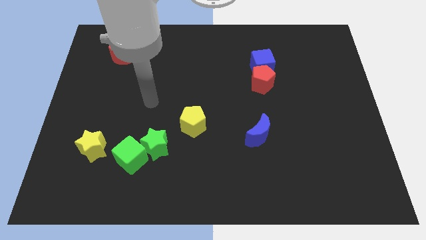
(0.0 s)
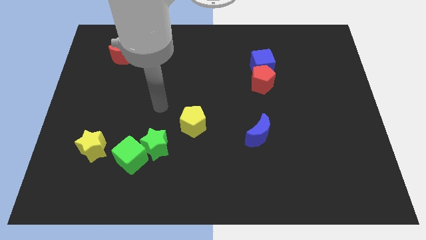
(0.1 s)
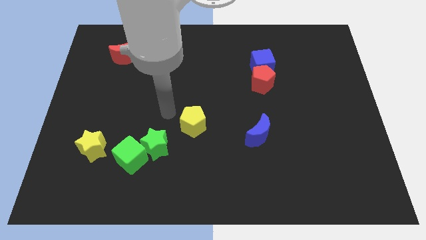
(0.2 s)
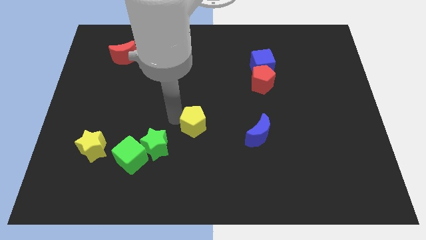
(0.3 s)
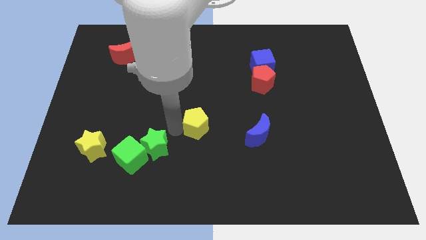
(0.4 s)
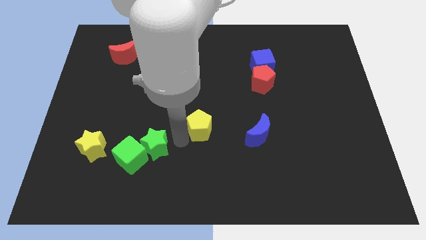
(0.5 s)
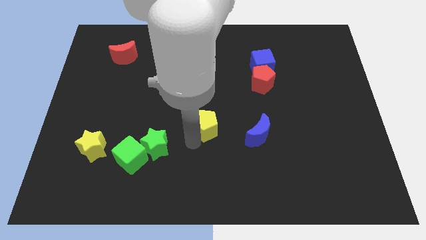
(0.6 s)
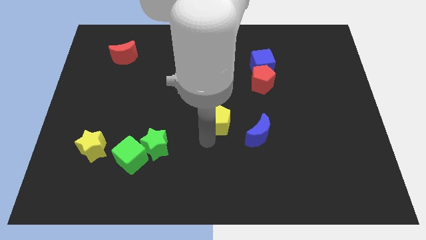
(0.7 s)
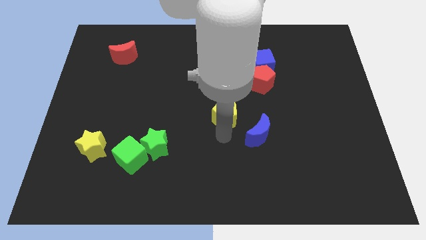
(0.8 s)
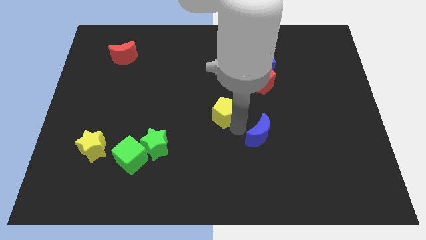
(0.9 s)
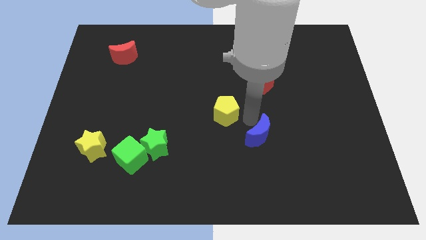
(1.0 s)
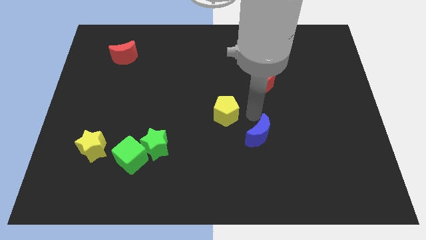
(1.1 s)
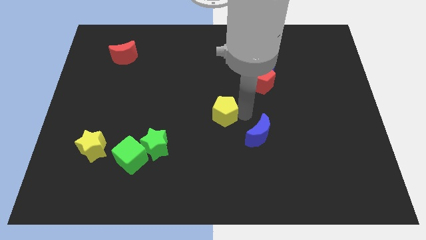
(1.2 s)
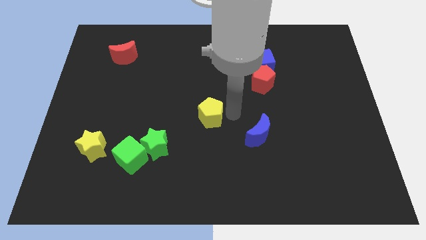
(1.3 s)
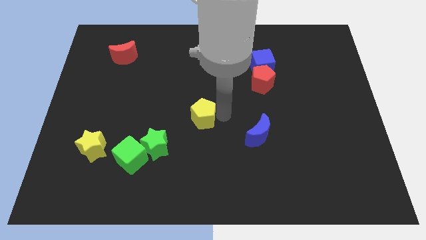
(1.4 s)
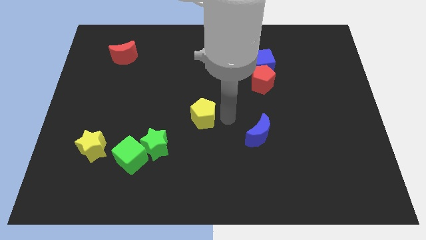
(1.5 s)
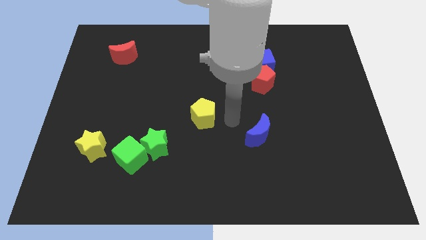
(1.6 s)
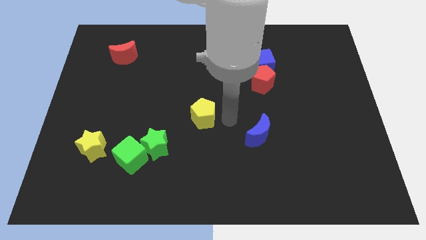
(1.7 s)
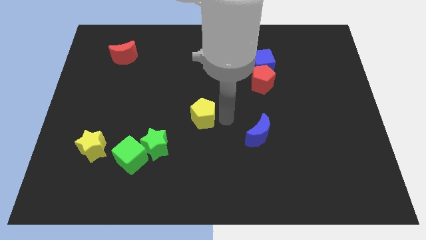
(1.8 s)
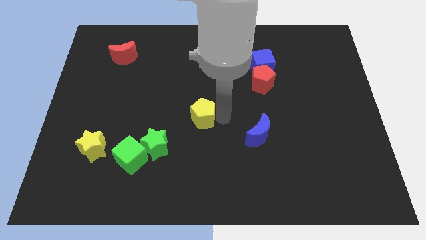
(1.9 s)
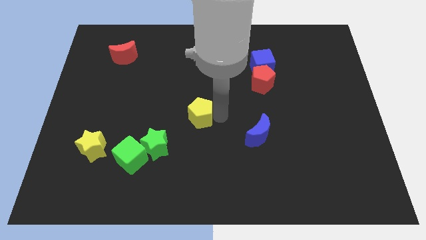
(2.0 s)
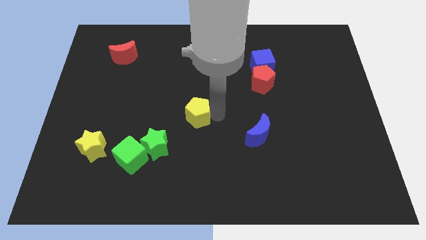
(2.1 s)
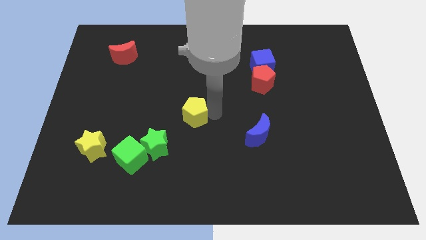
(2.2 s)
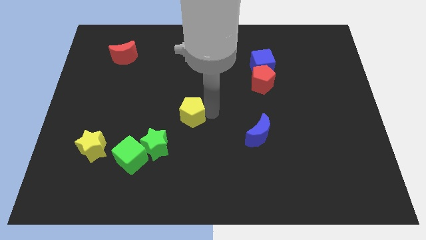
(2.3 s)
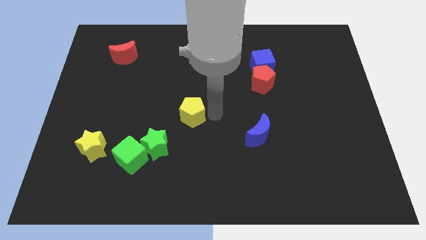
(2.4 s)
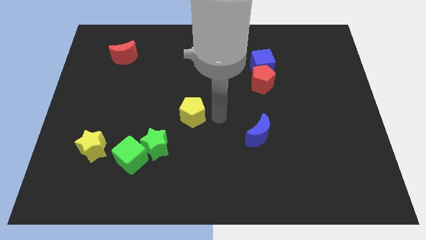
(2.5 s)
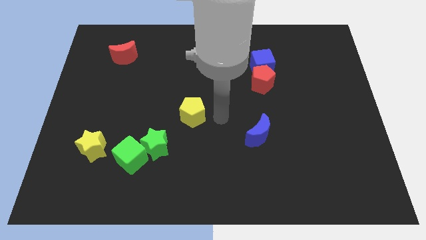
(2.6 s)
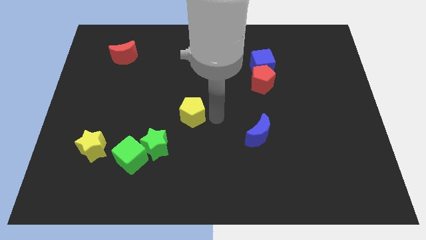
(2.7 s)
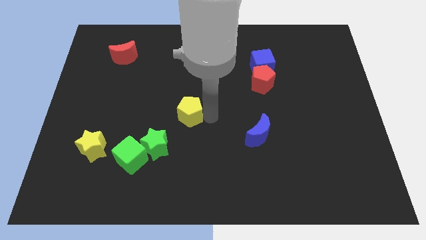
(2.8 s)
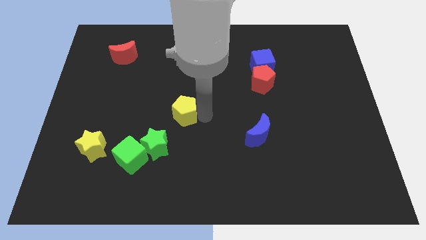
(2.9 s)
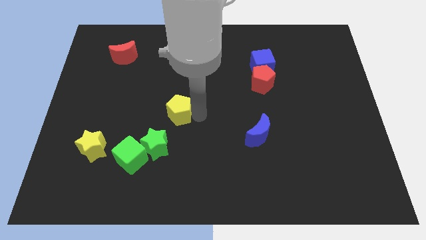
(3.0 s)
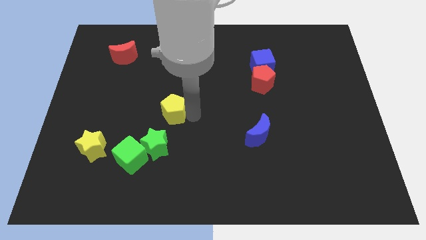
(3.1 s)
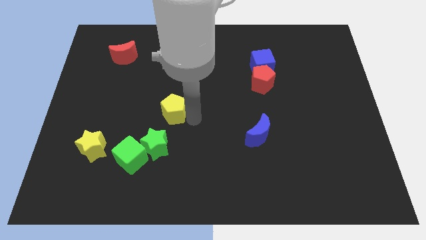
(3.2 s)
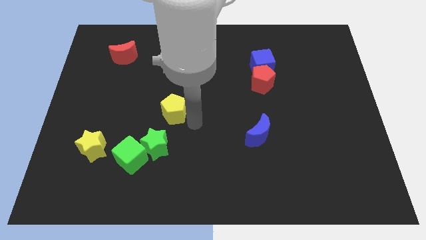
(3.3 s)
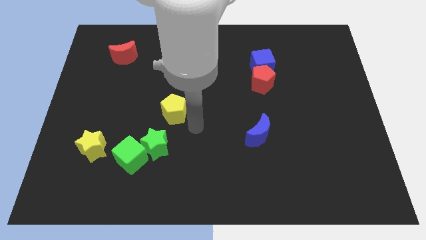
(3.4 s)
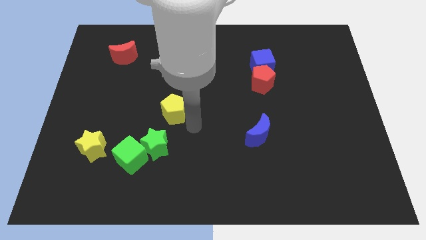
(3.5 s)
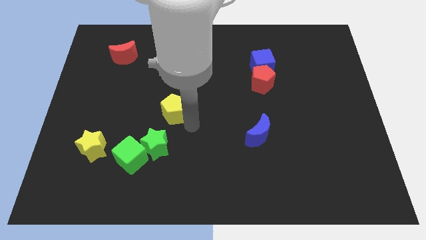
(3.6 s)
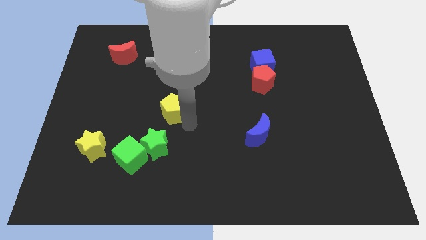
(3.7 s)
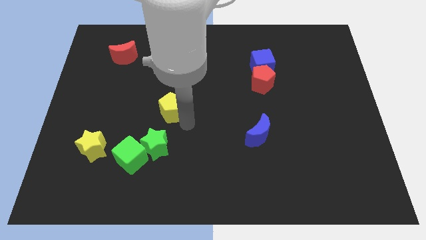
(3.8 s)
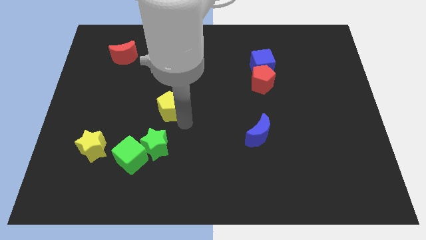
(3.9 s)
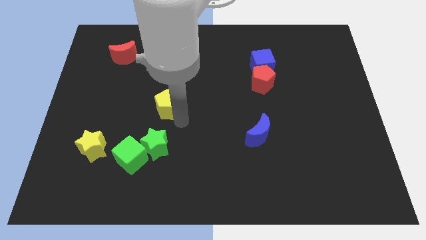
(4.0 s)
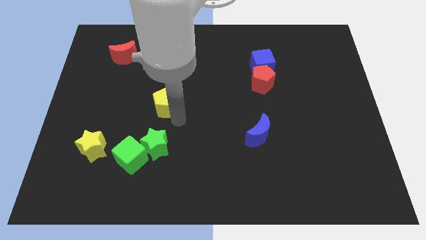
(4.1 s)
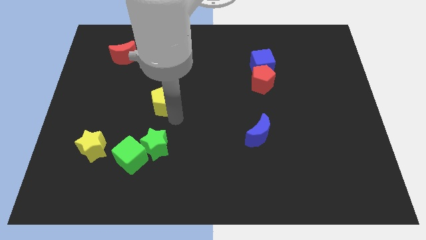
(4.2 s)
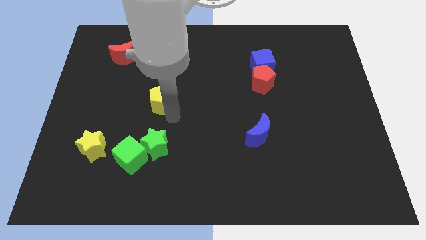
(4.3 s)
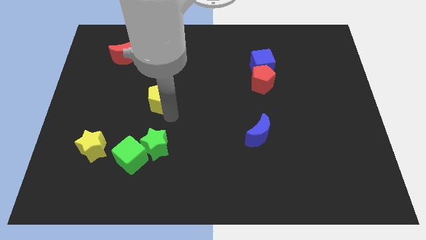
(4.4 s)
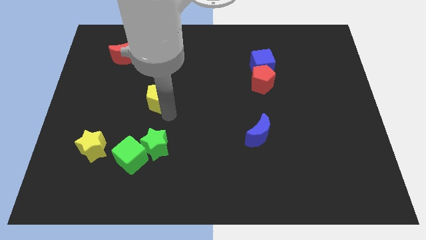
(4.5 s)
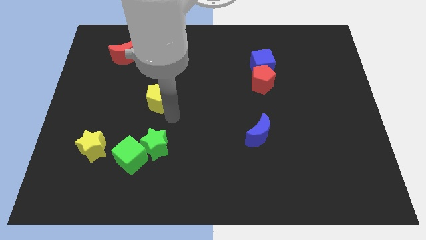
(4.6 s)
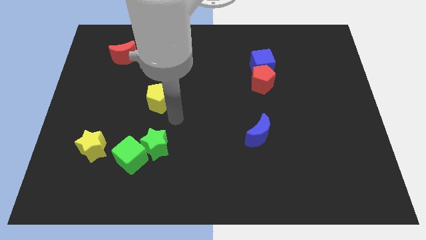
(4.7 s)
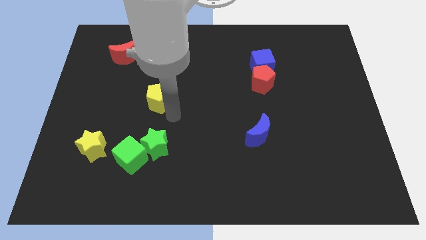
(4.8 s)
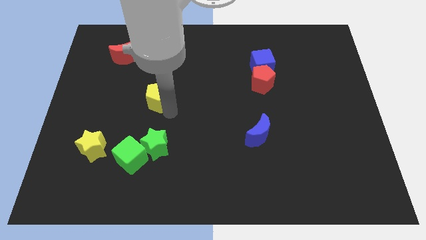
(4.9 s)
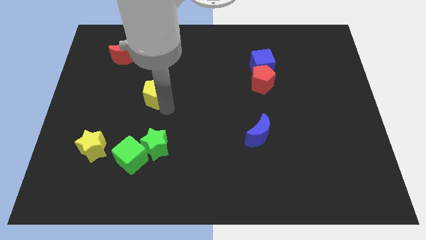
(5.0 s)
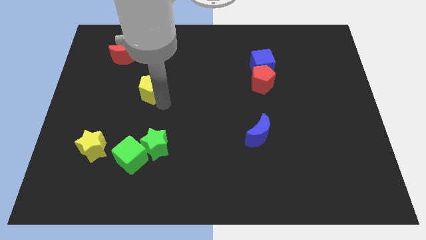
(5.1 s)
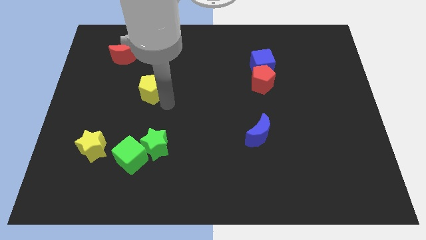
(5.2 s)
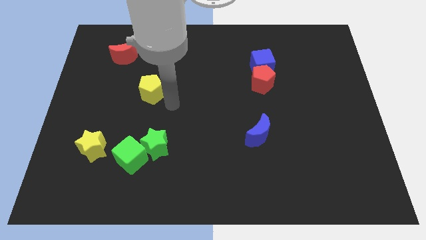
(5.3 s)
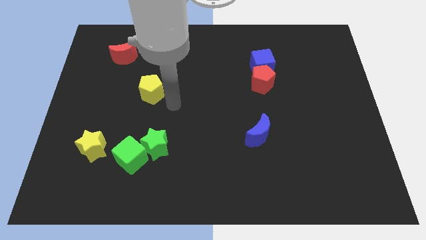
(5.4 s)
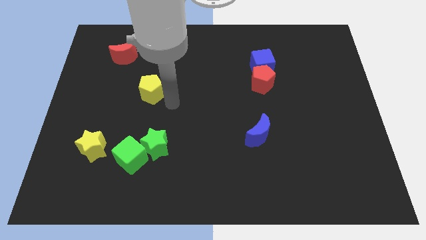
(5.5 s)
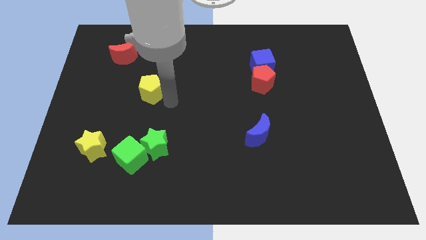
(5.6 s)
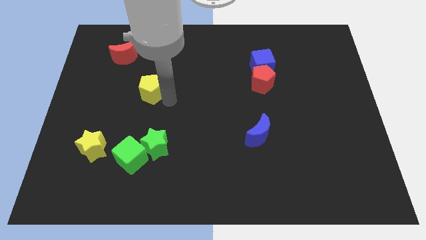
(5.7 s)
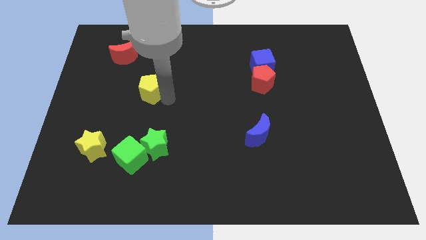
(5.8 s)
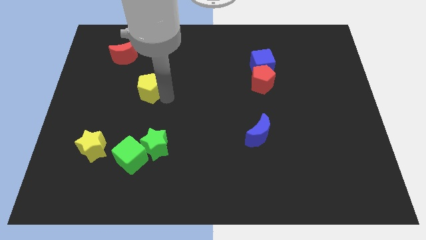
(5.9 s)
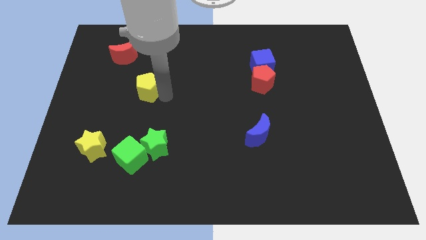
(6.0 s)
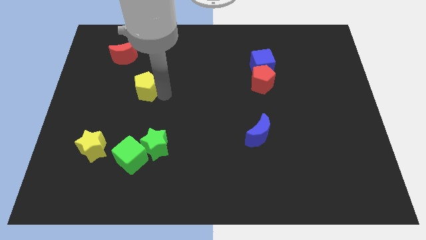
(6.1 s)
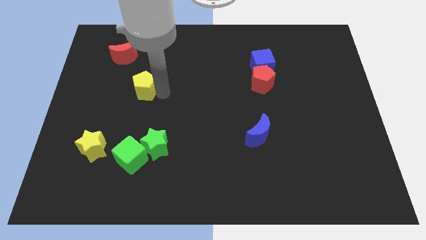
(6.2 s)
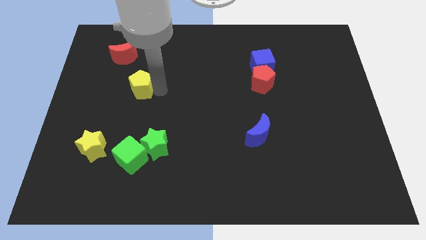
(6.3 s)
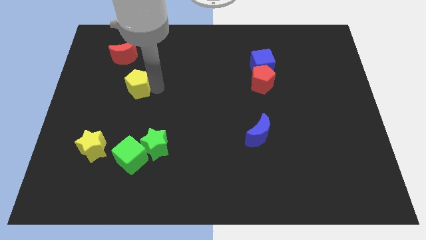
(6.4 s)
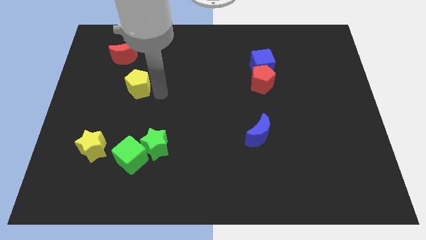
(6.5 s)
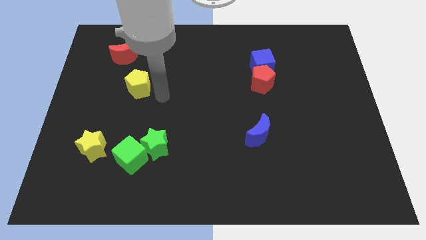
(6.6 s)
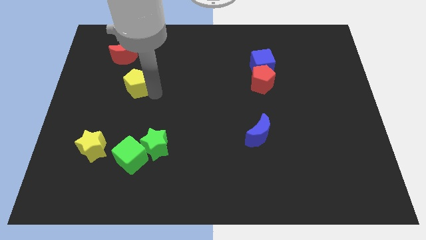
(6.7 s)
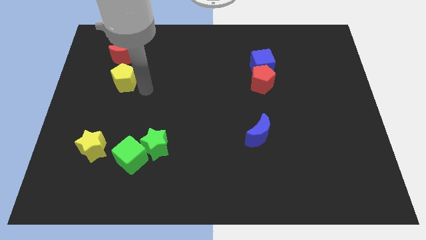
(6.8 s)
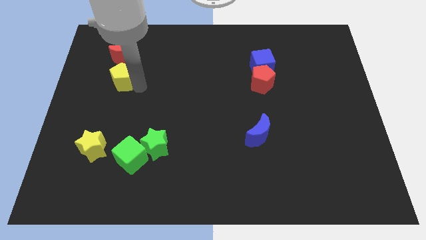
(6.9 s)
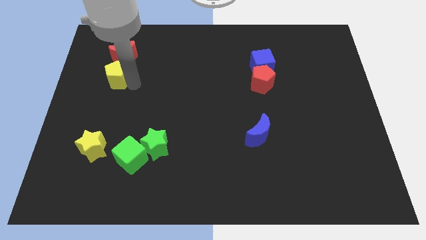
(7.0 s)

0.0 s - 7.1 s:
put the yellow pentagon to the bottom left side of the red moon

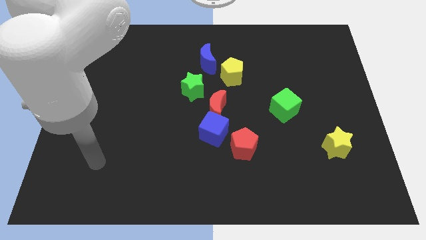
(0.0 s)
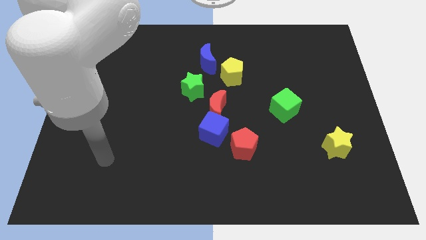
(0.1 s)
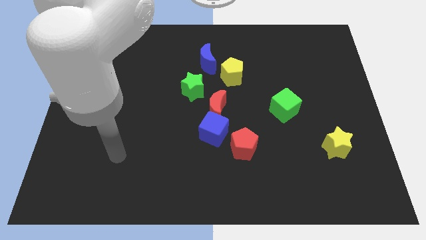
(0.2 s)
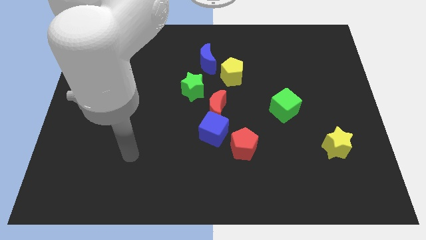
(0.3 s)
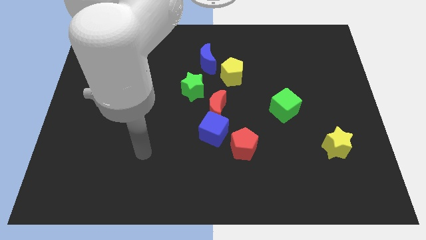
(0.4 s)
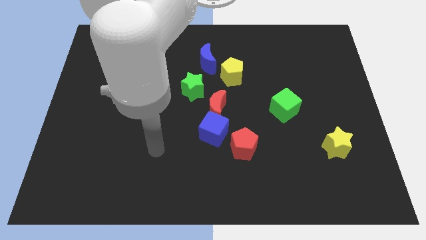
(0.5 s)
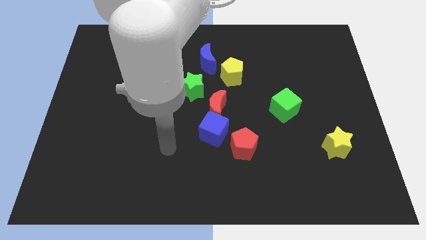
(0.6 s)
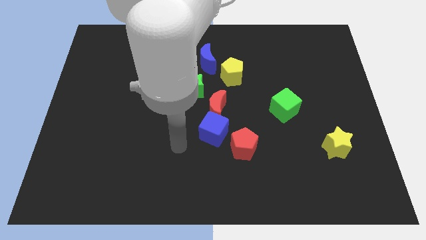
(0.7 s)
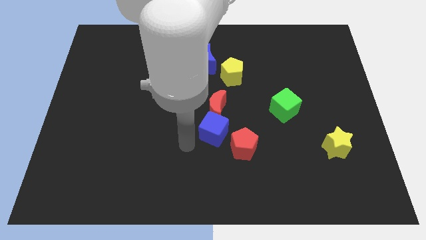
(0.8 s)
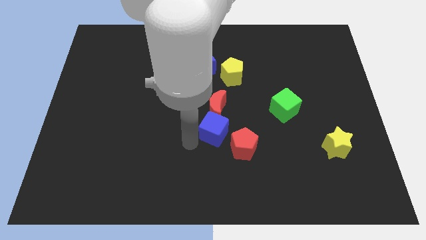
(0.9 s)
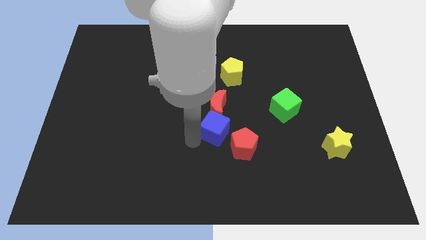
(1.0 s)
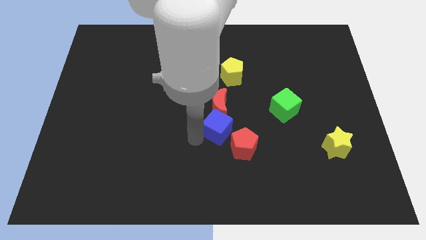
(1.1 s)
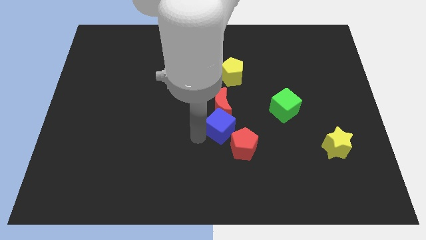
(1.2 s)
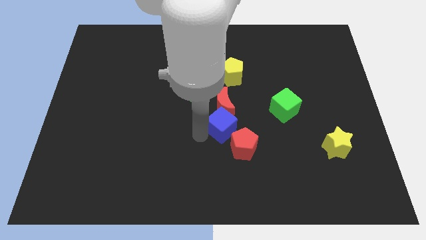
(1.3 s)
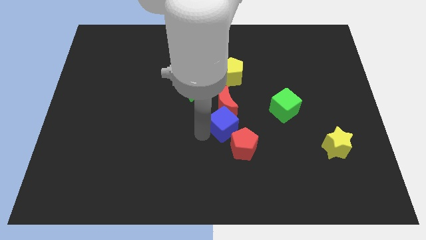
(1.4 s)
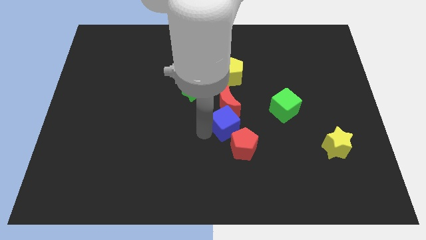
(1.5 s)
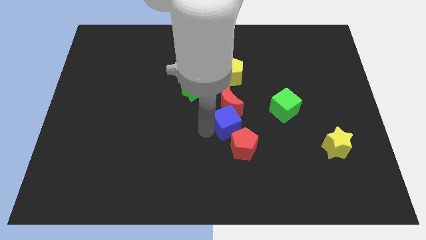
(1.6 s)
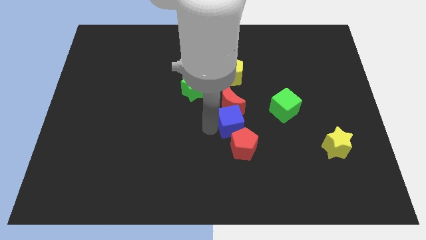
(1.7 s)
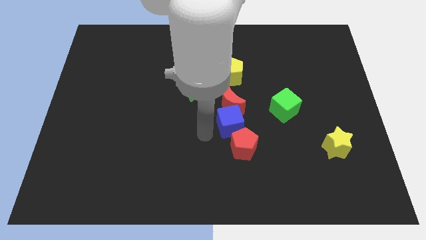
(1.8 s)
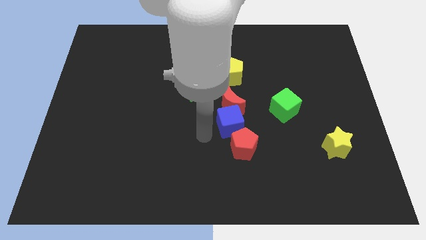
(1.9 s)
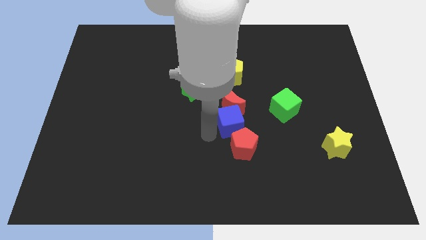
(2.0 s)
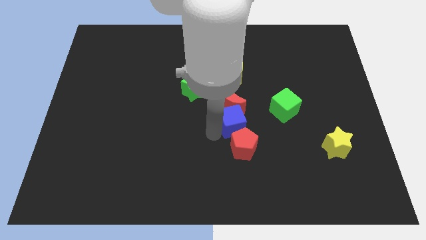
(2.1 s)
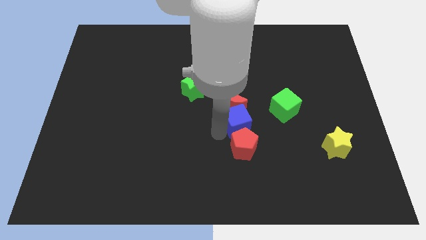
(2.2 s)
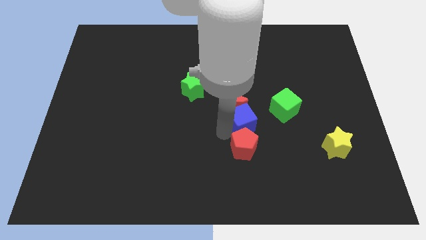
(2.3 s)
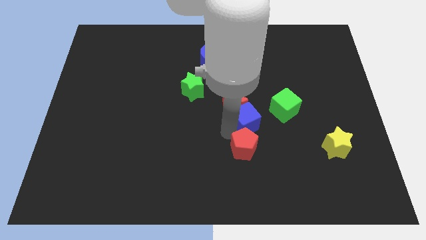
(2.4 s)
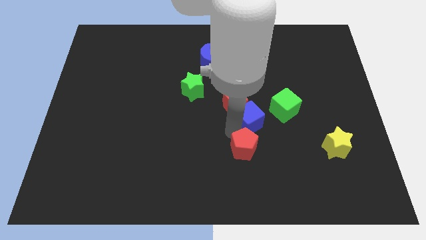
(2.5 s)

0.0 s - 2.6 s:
put the blue cube right of the red moon
